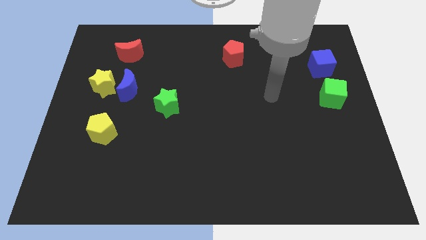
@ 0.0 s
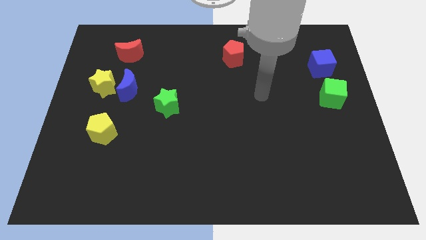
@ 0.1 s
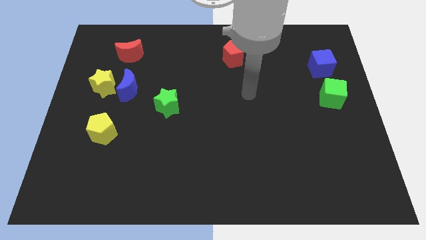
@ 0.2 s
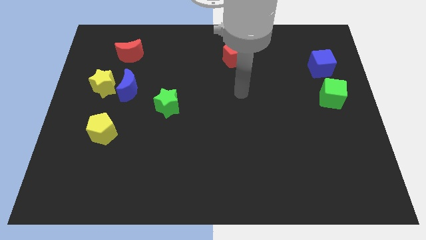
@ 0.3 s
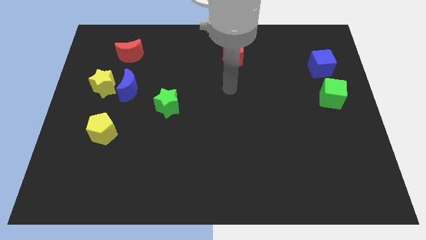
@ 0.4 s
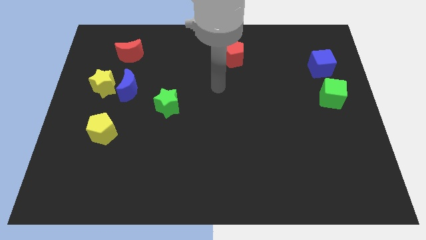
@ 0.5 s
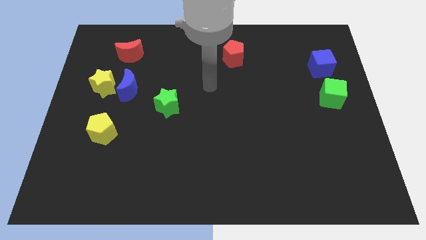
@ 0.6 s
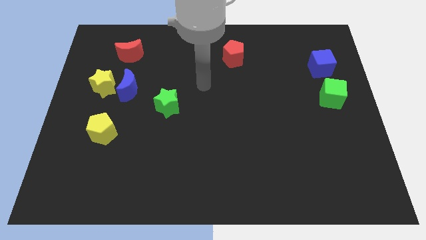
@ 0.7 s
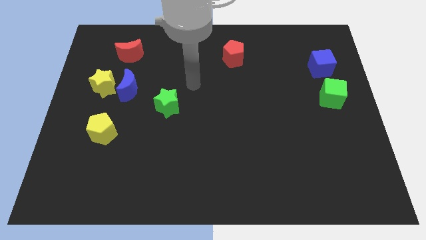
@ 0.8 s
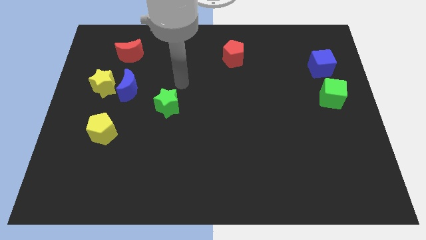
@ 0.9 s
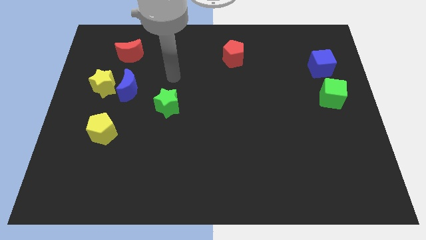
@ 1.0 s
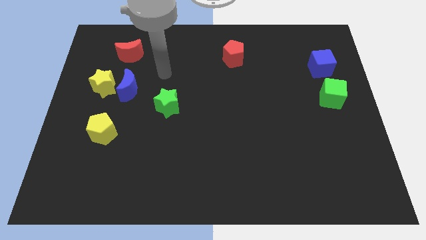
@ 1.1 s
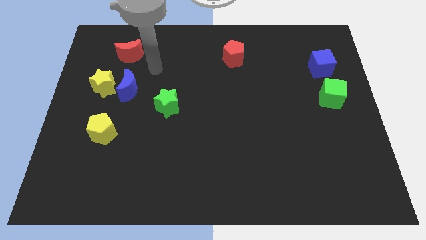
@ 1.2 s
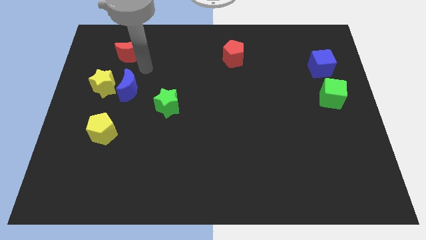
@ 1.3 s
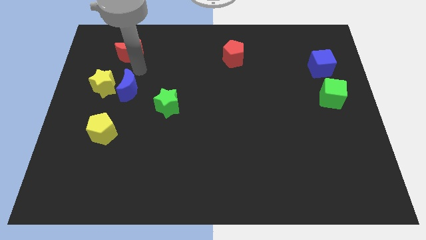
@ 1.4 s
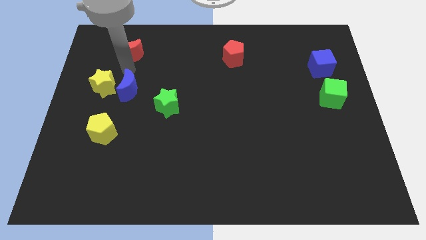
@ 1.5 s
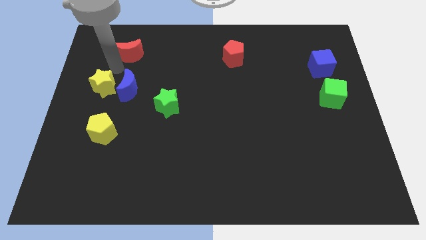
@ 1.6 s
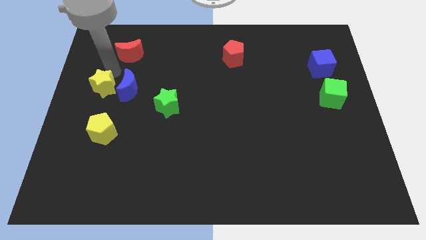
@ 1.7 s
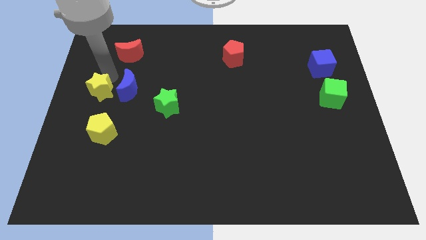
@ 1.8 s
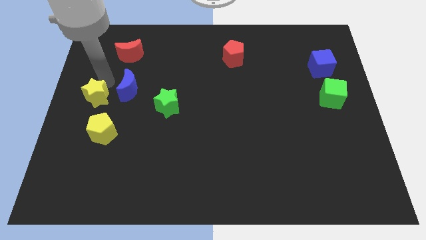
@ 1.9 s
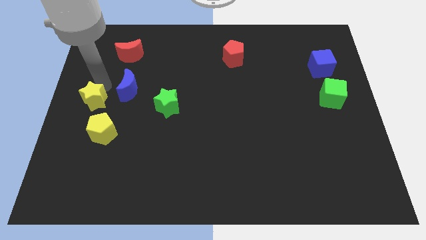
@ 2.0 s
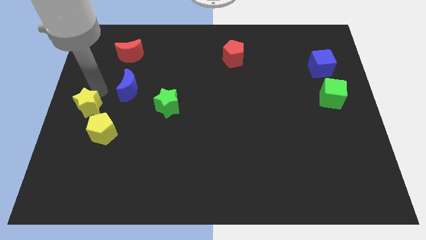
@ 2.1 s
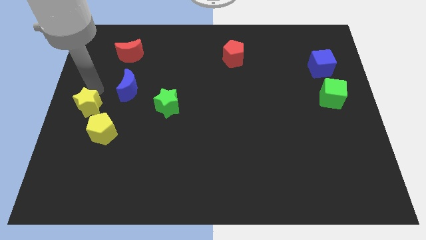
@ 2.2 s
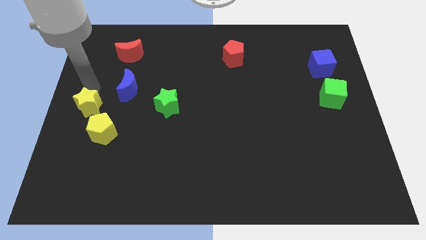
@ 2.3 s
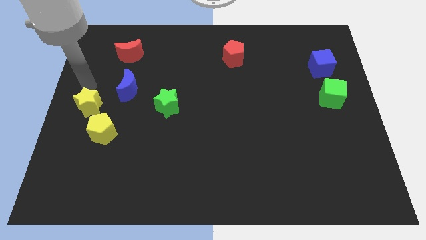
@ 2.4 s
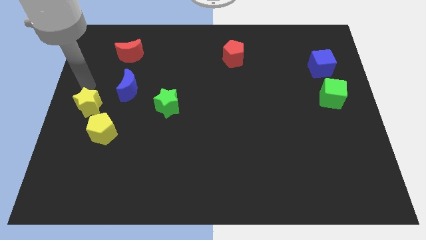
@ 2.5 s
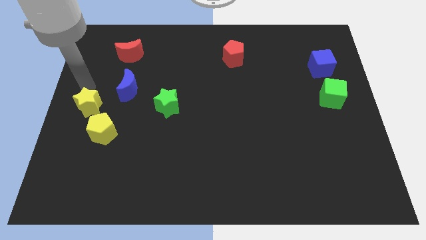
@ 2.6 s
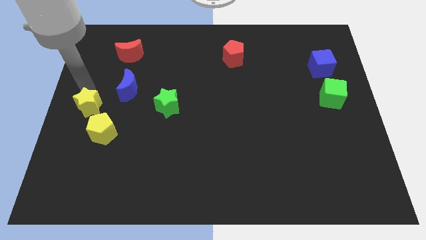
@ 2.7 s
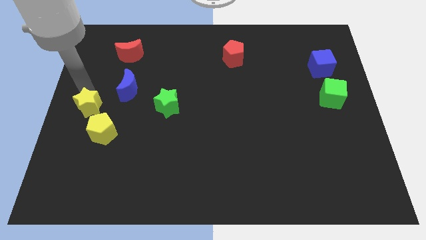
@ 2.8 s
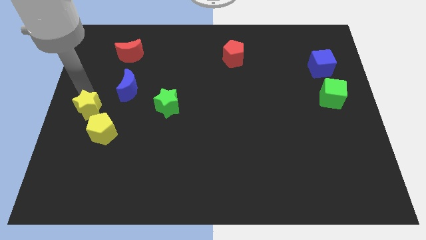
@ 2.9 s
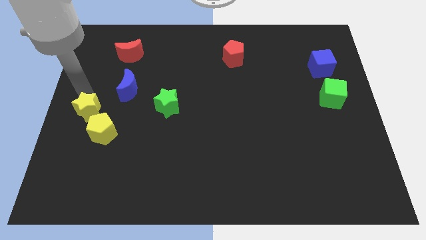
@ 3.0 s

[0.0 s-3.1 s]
move the yellow star a little bit downwards

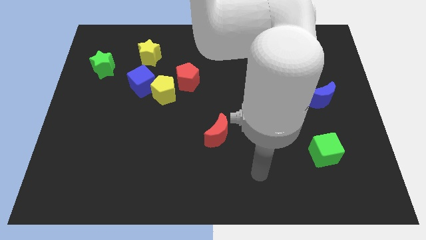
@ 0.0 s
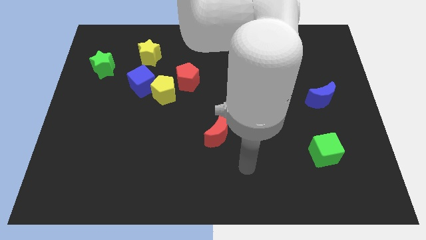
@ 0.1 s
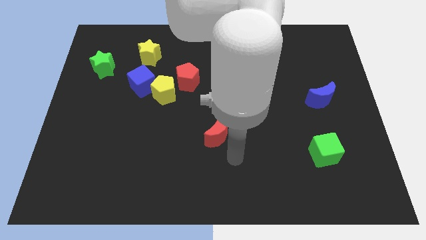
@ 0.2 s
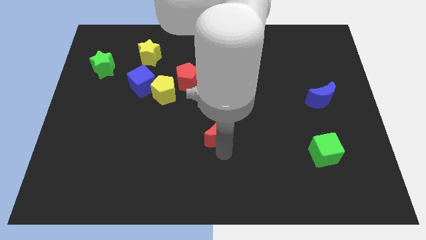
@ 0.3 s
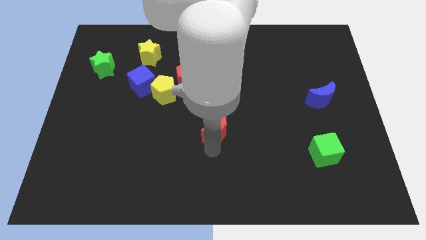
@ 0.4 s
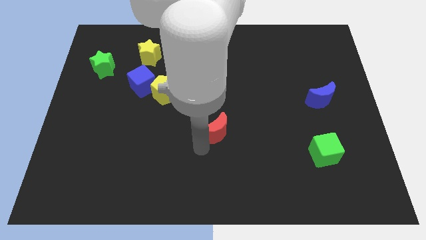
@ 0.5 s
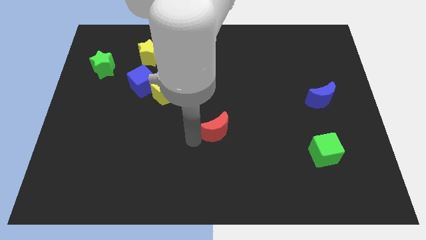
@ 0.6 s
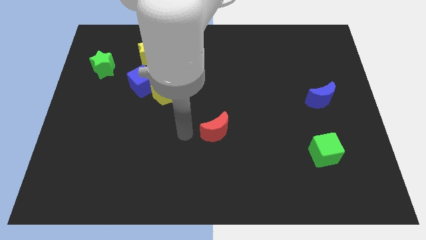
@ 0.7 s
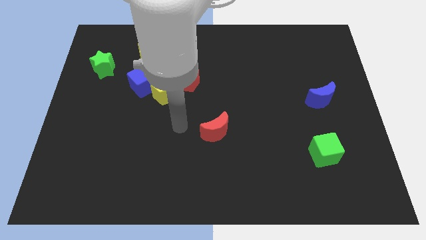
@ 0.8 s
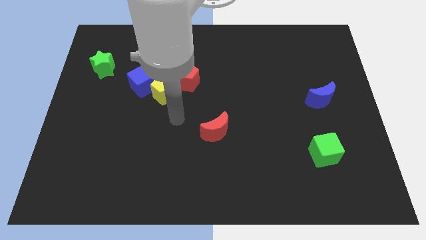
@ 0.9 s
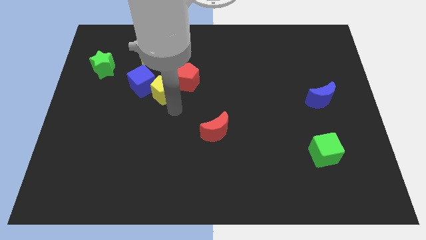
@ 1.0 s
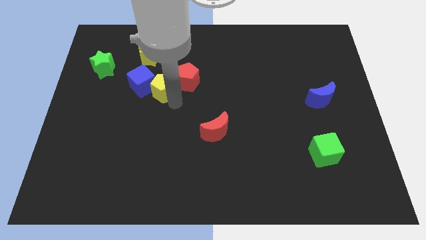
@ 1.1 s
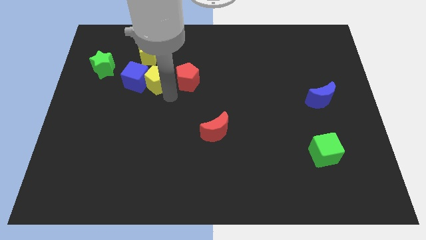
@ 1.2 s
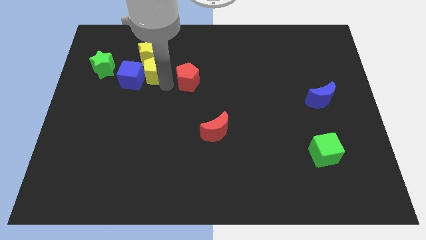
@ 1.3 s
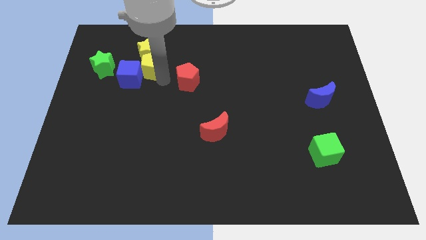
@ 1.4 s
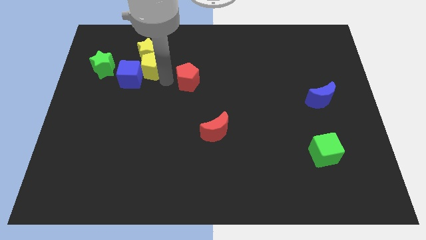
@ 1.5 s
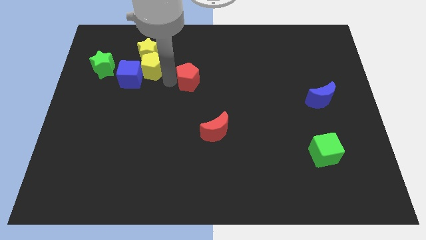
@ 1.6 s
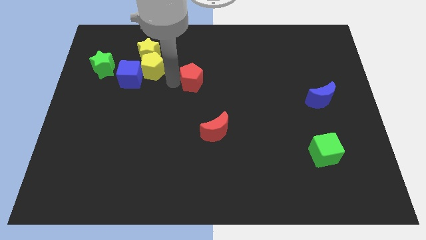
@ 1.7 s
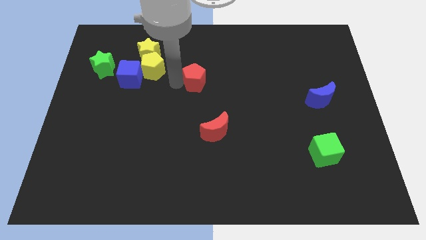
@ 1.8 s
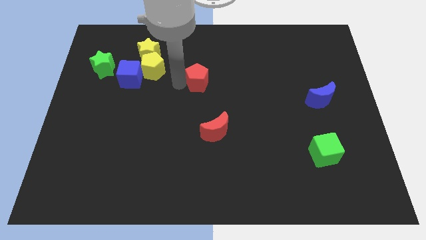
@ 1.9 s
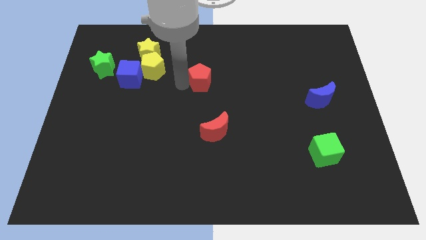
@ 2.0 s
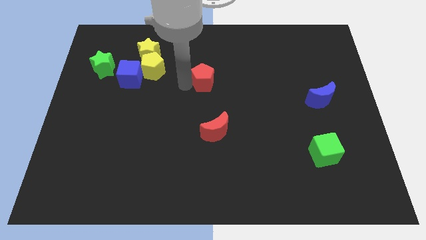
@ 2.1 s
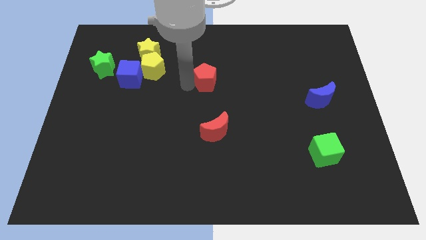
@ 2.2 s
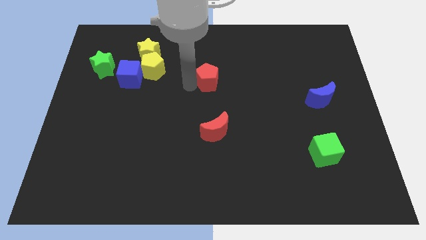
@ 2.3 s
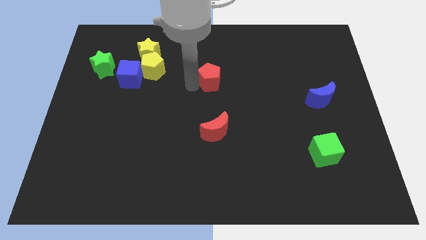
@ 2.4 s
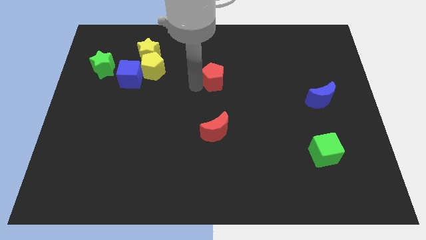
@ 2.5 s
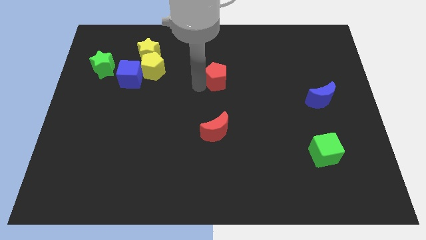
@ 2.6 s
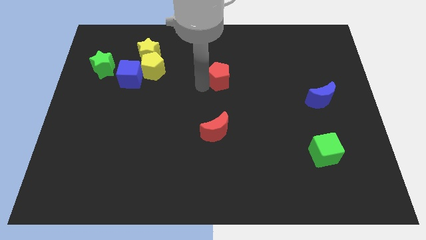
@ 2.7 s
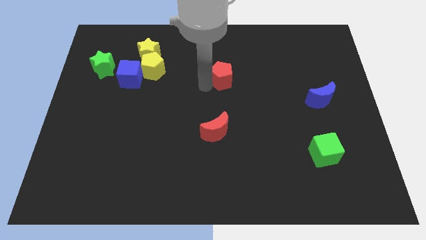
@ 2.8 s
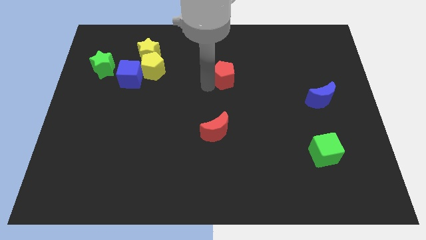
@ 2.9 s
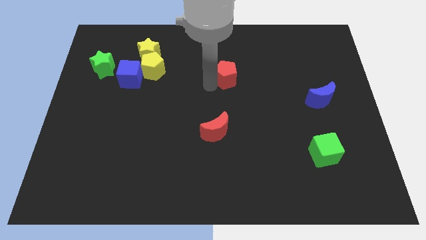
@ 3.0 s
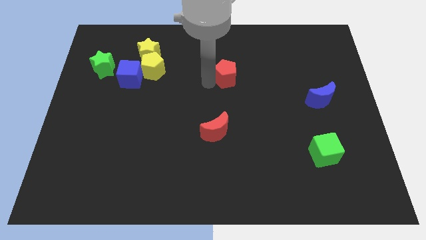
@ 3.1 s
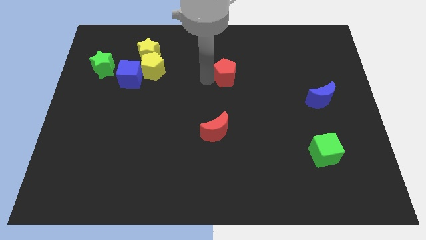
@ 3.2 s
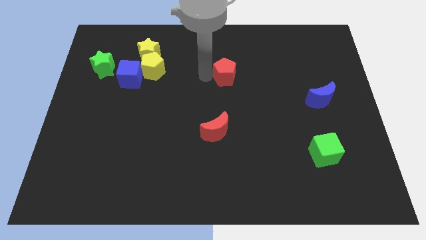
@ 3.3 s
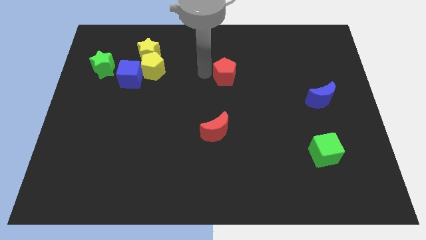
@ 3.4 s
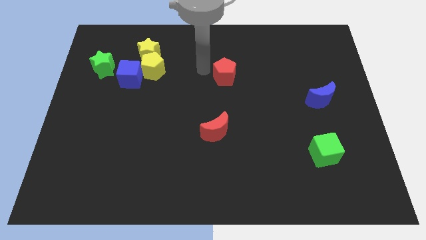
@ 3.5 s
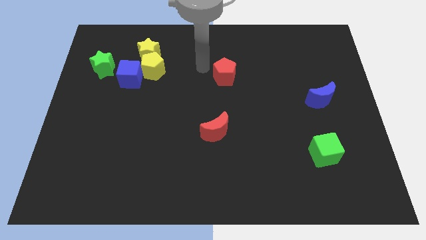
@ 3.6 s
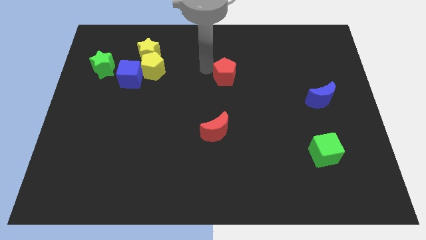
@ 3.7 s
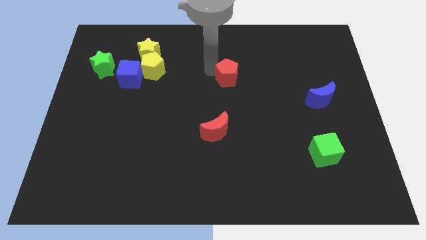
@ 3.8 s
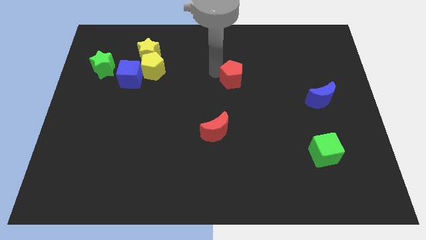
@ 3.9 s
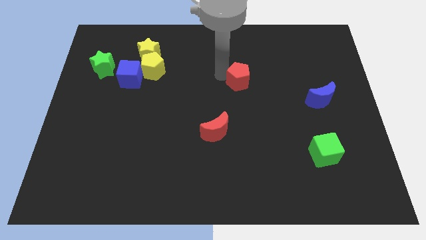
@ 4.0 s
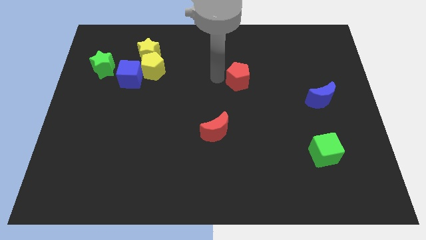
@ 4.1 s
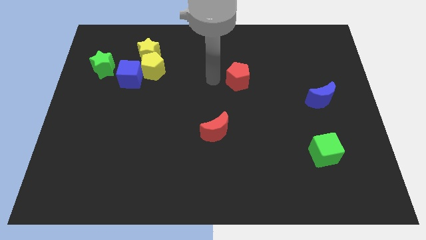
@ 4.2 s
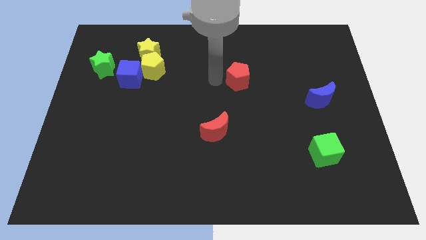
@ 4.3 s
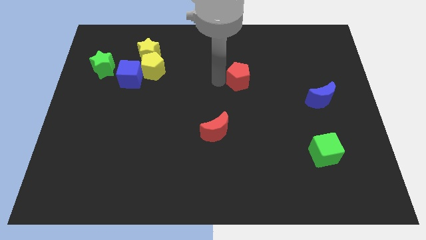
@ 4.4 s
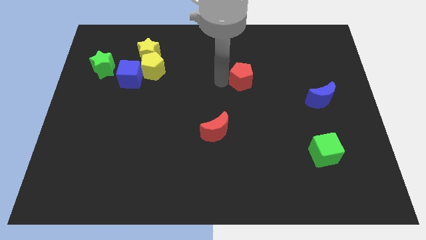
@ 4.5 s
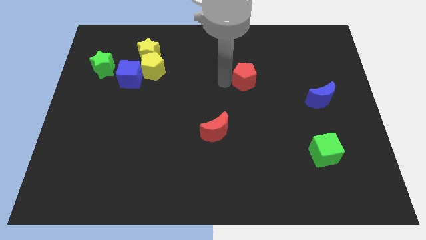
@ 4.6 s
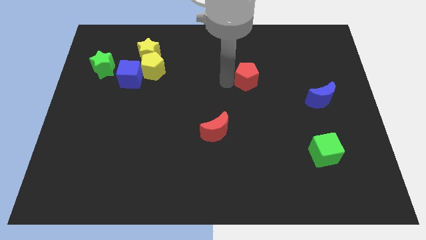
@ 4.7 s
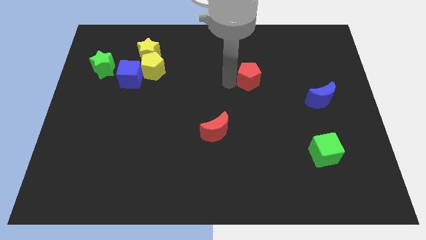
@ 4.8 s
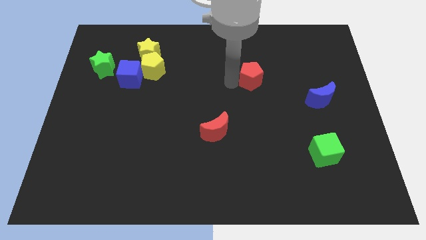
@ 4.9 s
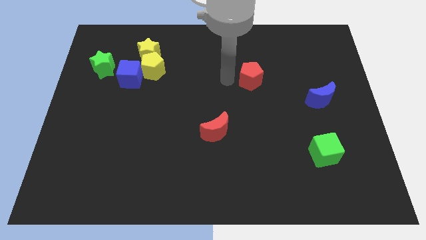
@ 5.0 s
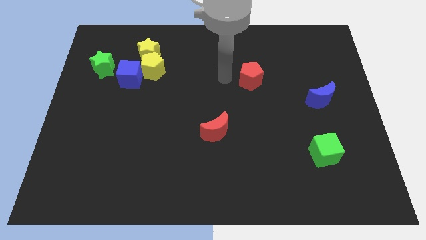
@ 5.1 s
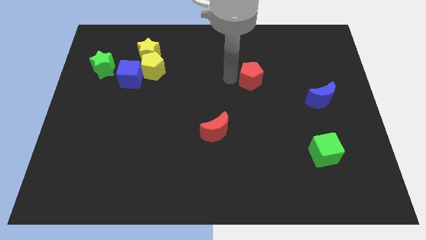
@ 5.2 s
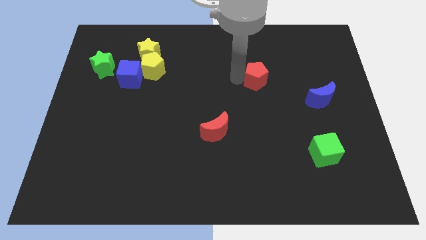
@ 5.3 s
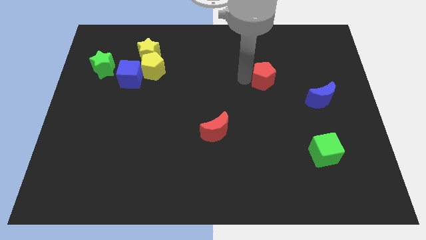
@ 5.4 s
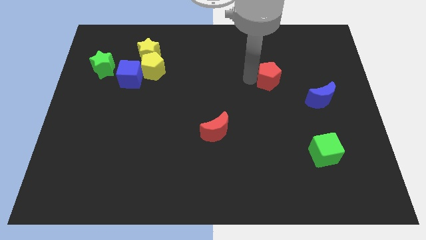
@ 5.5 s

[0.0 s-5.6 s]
slide the red pentagon right
